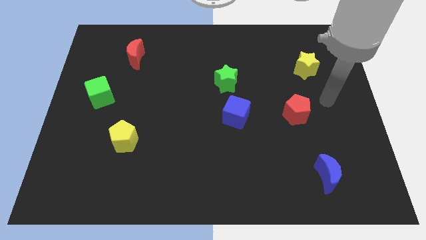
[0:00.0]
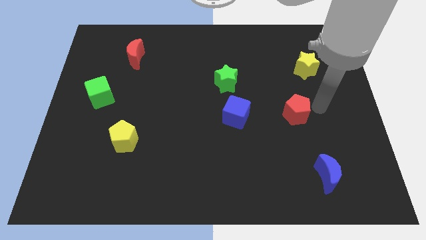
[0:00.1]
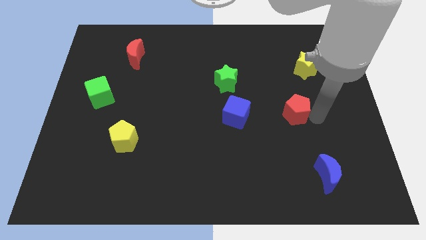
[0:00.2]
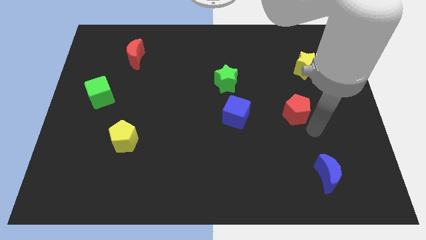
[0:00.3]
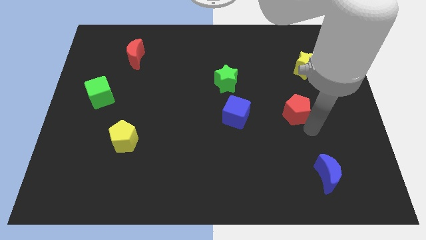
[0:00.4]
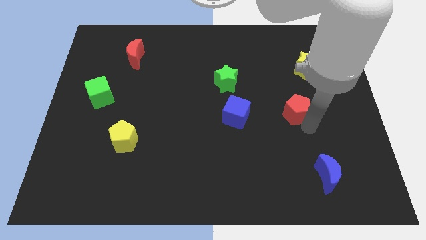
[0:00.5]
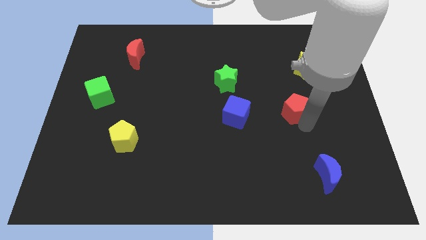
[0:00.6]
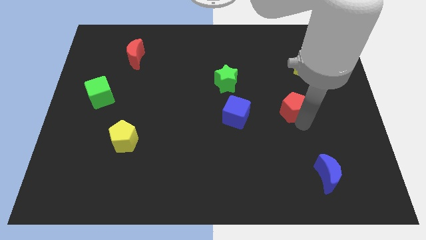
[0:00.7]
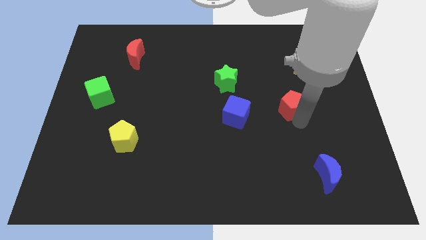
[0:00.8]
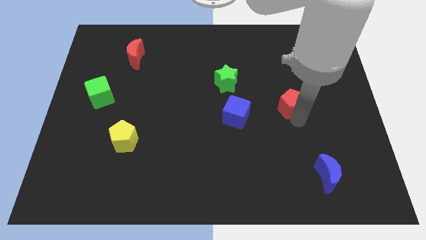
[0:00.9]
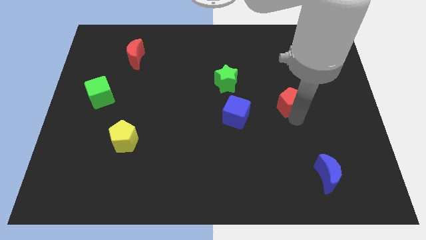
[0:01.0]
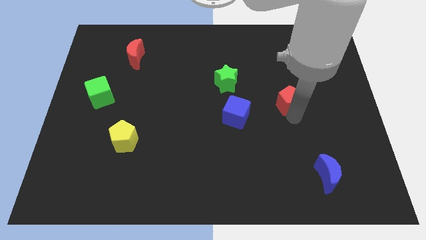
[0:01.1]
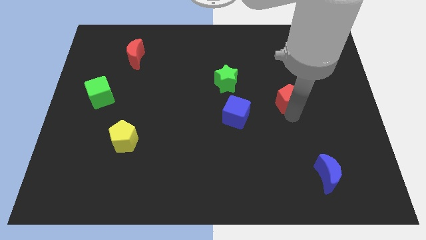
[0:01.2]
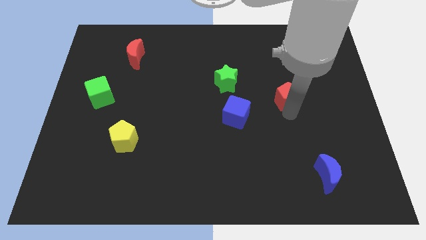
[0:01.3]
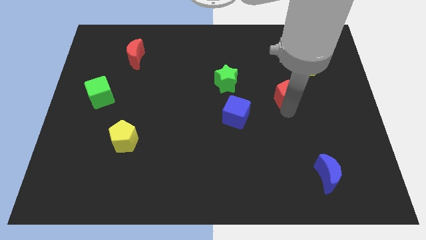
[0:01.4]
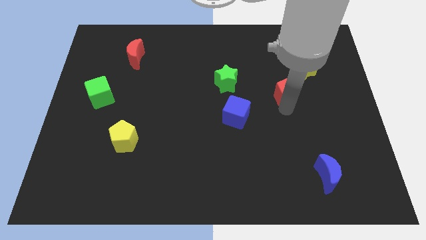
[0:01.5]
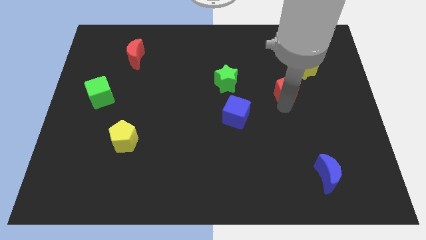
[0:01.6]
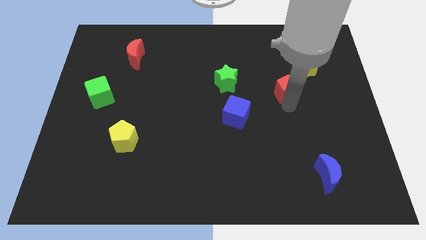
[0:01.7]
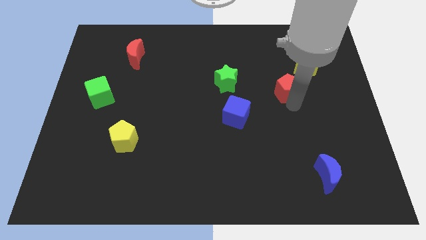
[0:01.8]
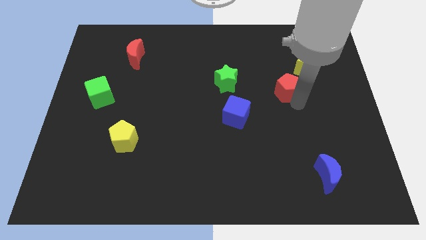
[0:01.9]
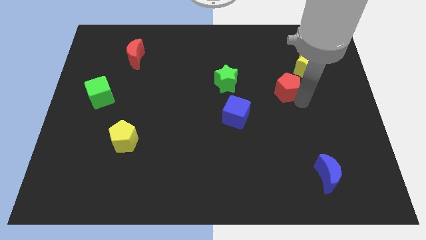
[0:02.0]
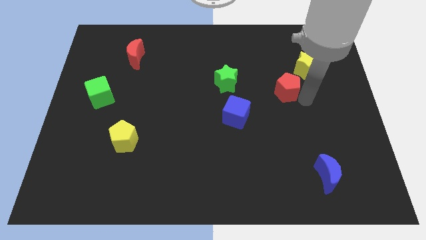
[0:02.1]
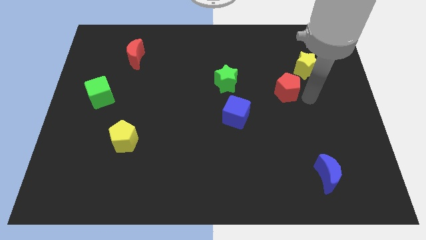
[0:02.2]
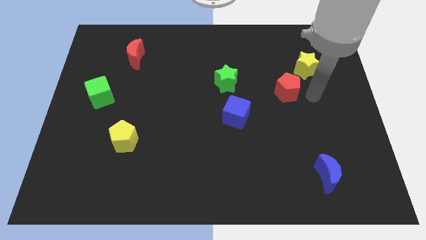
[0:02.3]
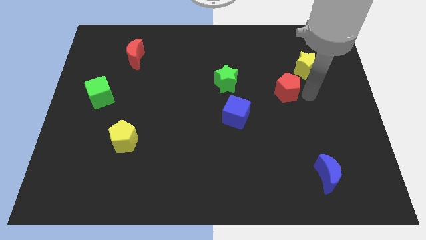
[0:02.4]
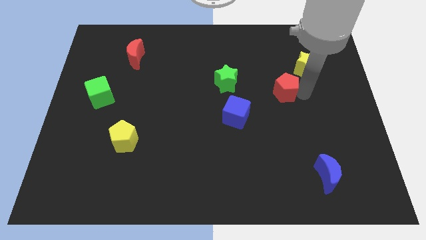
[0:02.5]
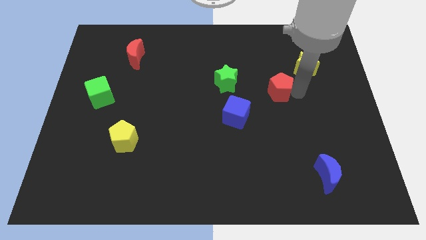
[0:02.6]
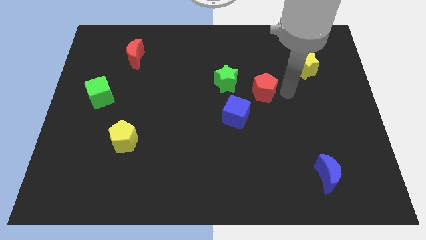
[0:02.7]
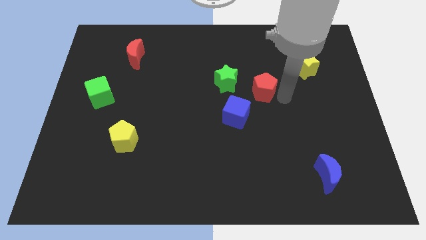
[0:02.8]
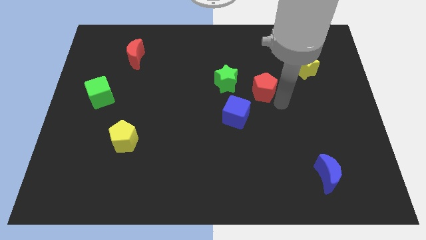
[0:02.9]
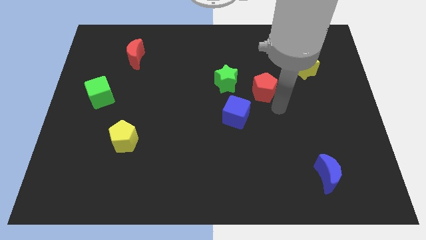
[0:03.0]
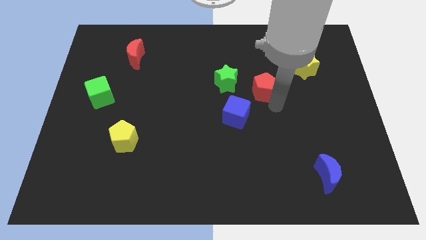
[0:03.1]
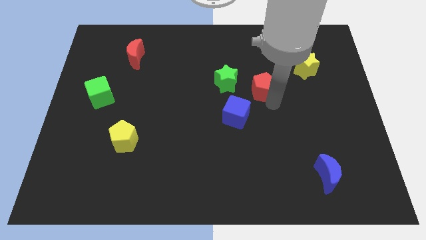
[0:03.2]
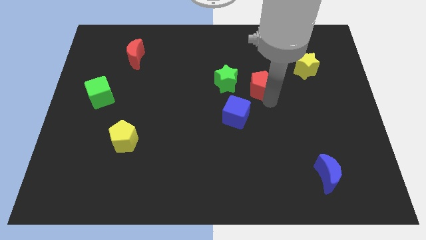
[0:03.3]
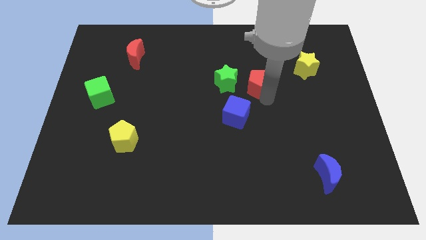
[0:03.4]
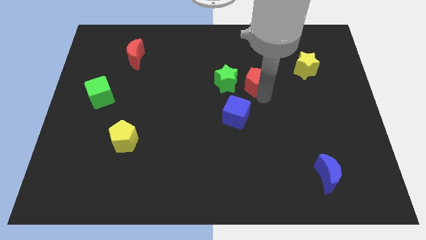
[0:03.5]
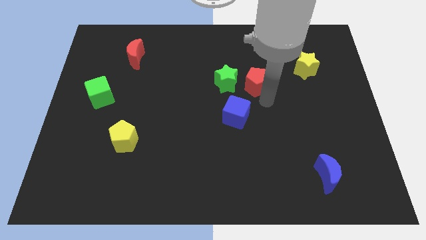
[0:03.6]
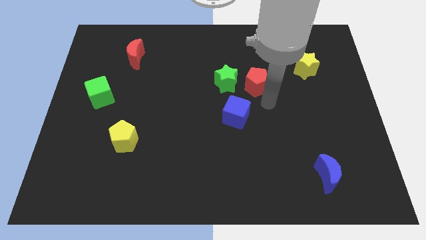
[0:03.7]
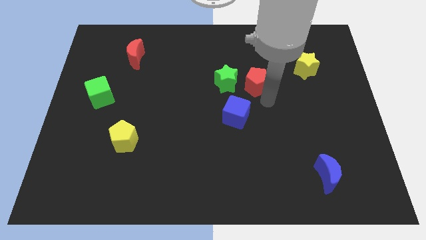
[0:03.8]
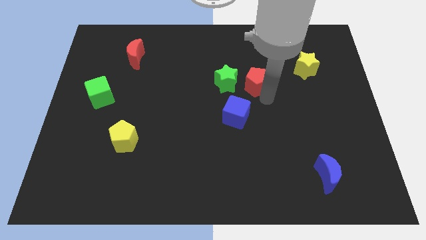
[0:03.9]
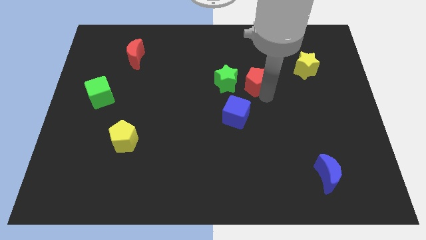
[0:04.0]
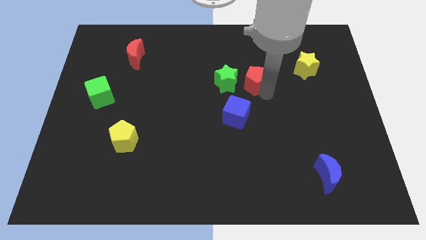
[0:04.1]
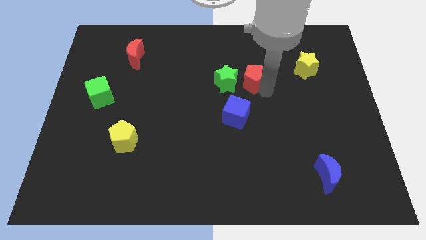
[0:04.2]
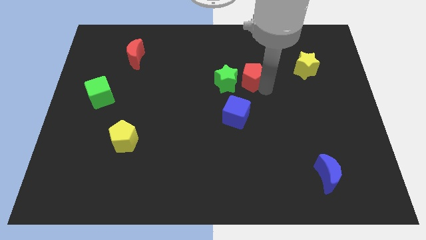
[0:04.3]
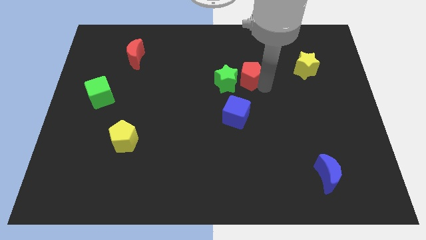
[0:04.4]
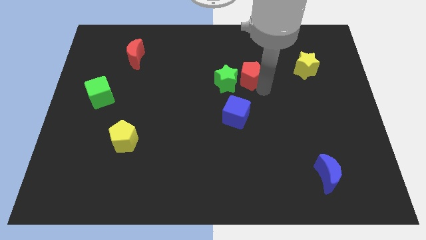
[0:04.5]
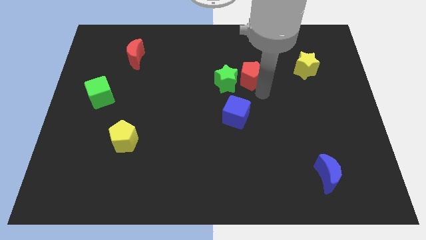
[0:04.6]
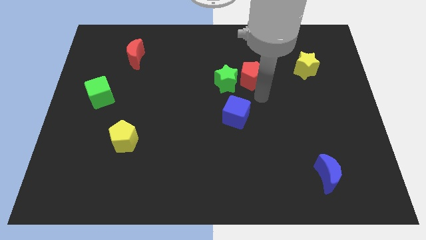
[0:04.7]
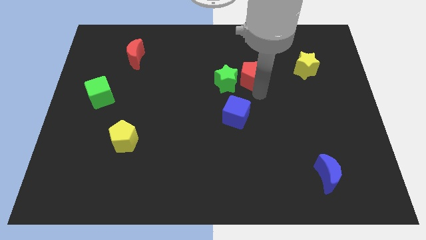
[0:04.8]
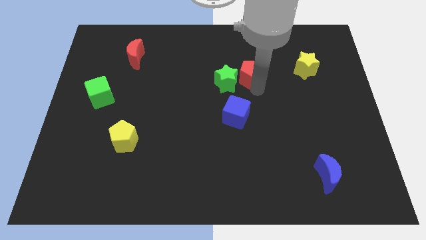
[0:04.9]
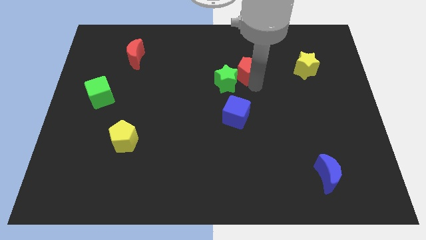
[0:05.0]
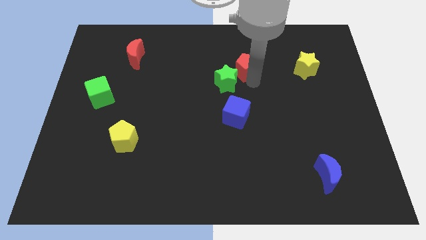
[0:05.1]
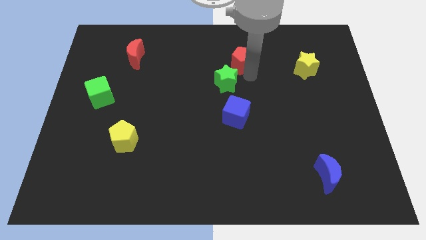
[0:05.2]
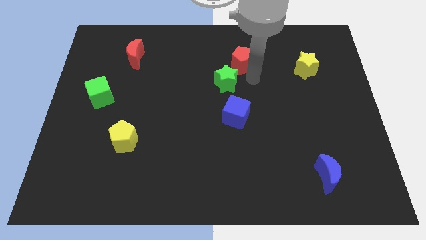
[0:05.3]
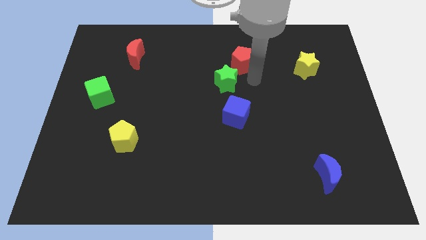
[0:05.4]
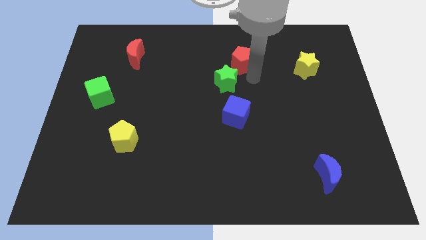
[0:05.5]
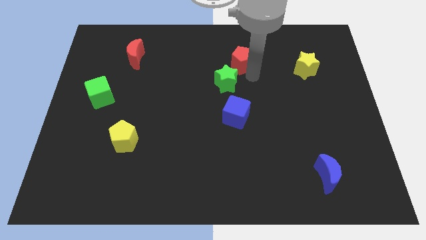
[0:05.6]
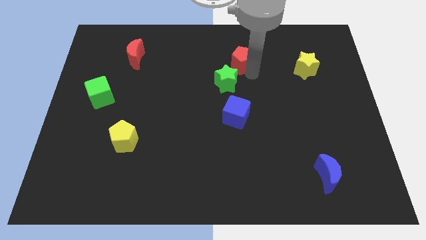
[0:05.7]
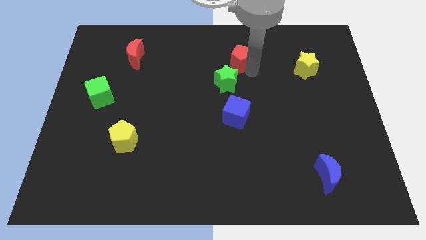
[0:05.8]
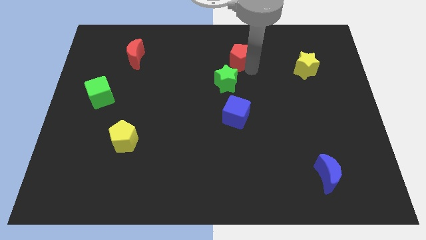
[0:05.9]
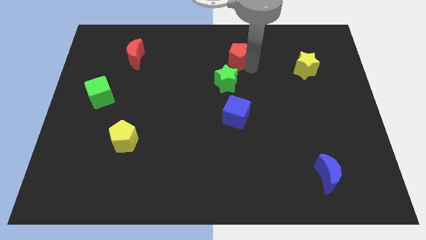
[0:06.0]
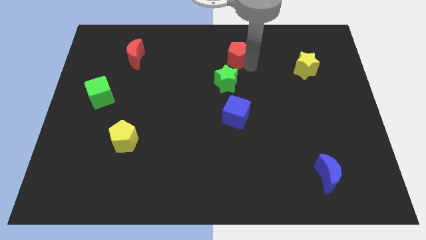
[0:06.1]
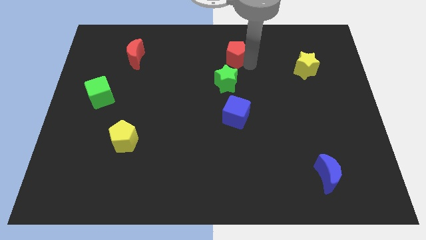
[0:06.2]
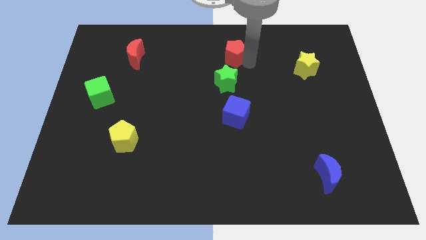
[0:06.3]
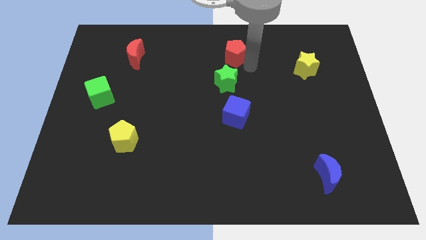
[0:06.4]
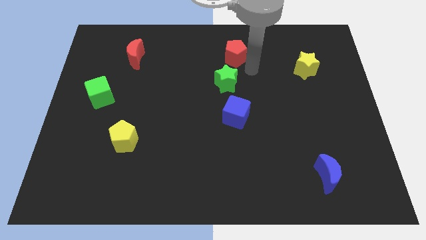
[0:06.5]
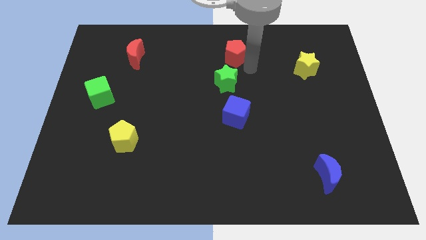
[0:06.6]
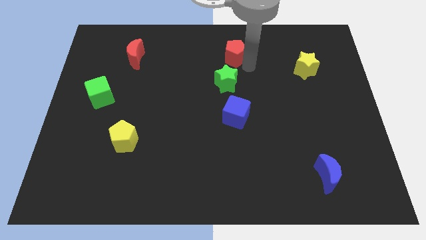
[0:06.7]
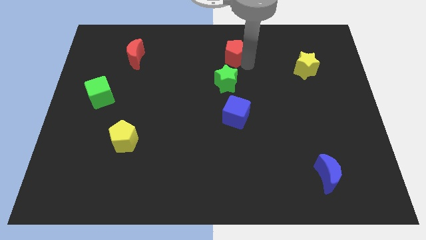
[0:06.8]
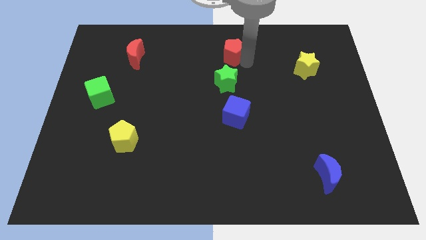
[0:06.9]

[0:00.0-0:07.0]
push the red pentagon to the towards your base
